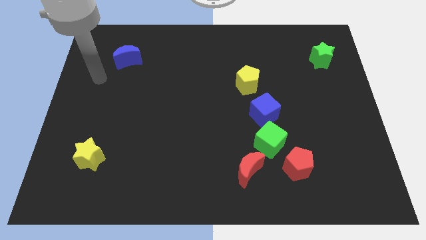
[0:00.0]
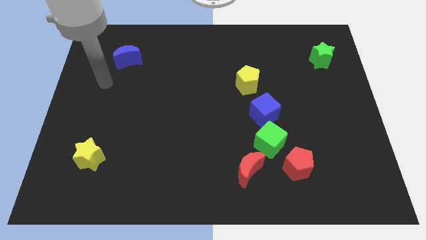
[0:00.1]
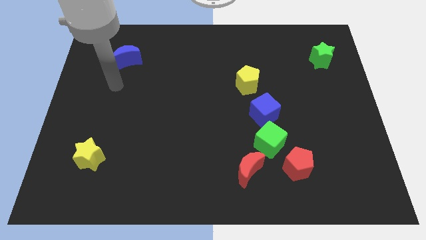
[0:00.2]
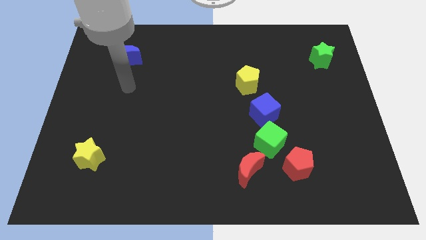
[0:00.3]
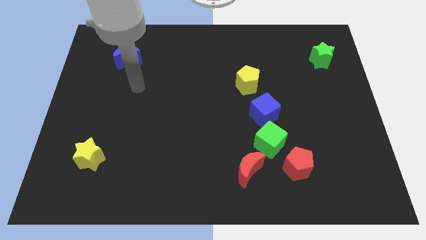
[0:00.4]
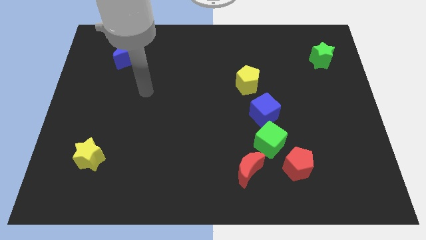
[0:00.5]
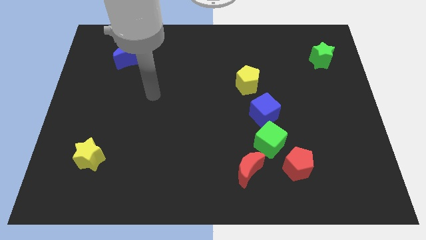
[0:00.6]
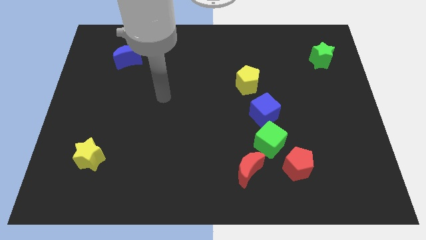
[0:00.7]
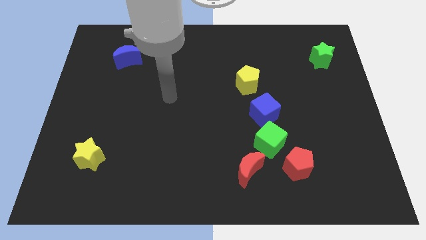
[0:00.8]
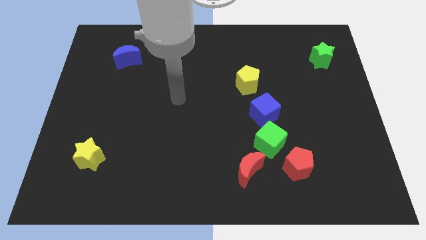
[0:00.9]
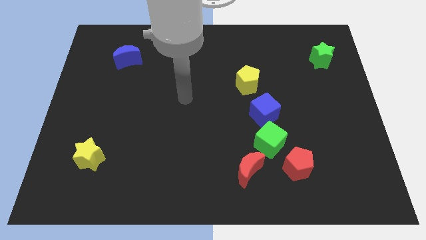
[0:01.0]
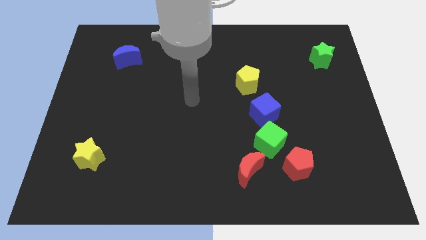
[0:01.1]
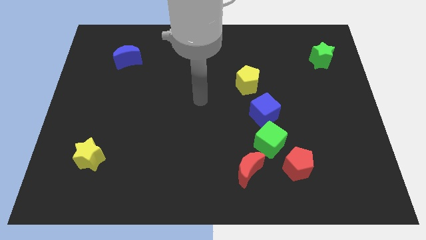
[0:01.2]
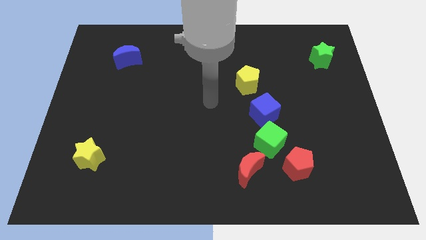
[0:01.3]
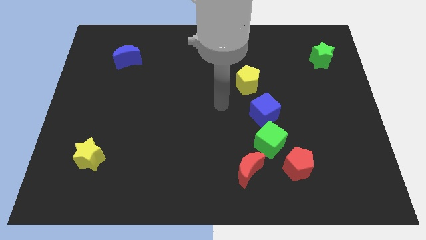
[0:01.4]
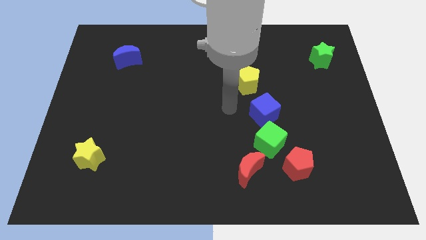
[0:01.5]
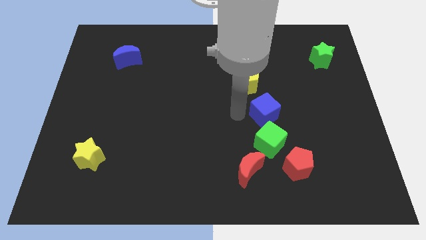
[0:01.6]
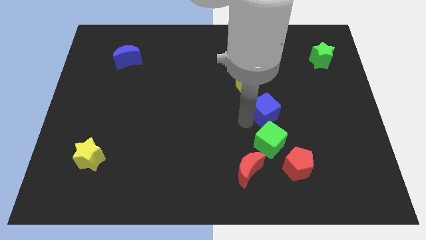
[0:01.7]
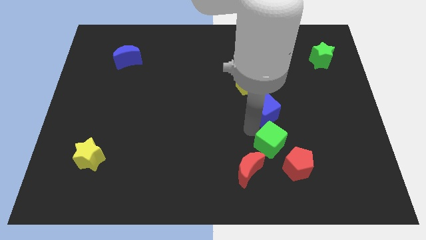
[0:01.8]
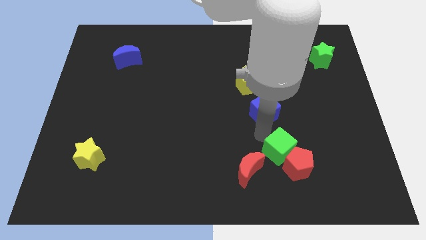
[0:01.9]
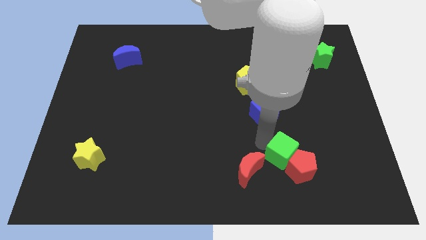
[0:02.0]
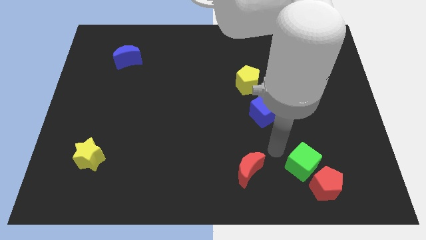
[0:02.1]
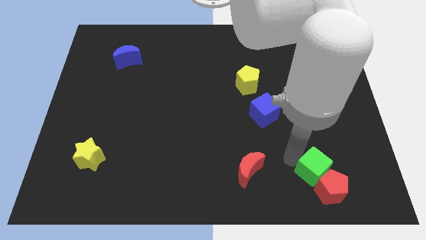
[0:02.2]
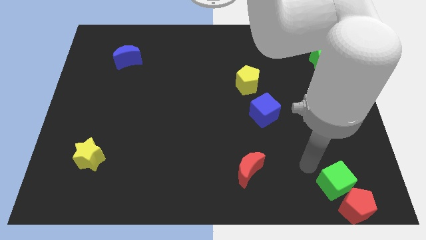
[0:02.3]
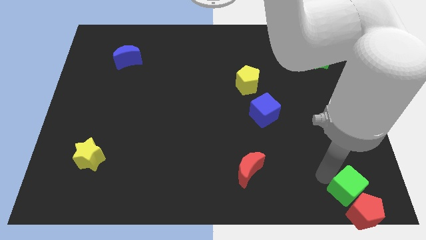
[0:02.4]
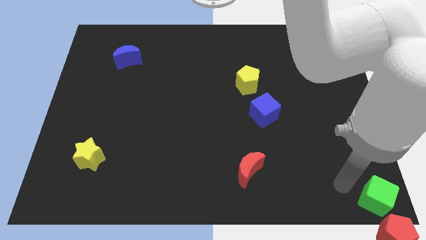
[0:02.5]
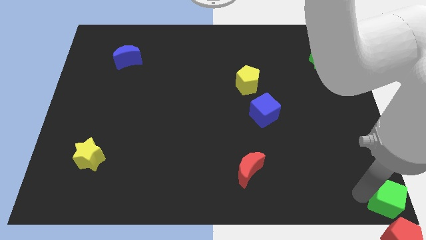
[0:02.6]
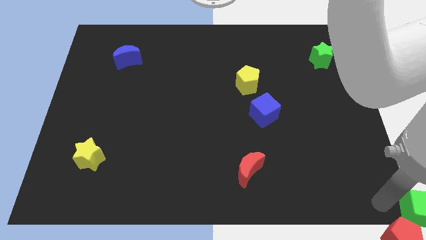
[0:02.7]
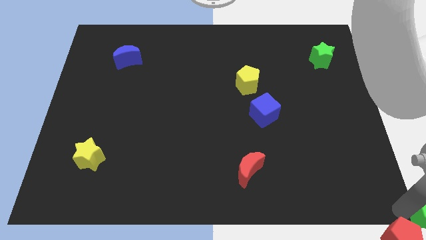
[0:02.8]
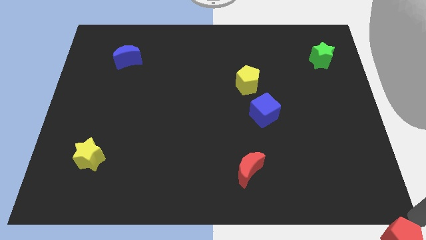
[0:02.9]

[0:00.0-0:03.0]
pull the red pentagon apart from the green cube

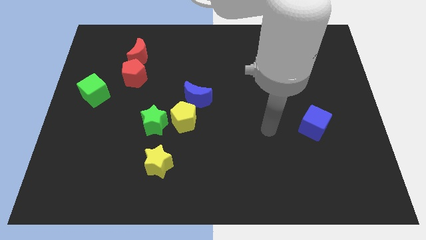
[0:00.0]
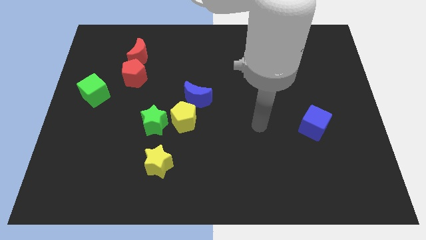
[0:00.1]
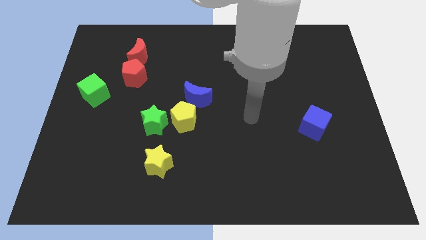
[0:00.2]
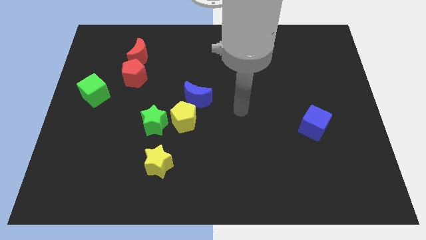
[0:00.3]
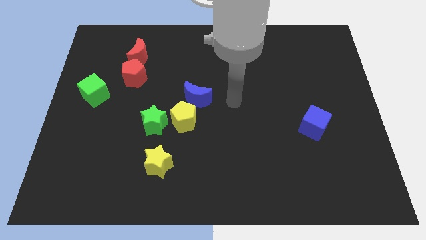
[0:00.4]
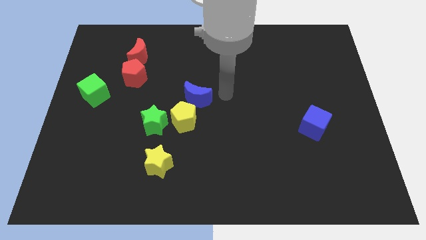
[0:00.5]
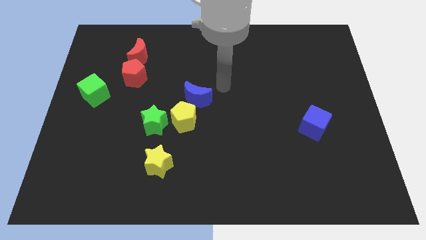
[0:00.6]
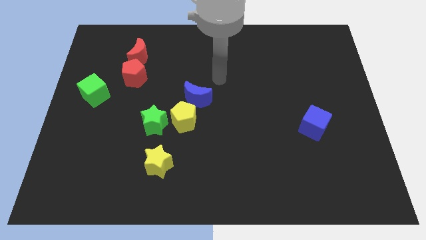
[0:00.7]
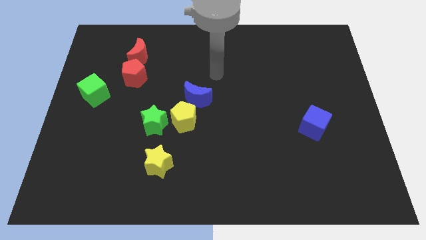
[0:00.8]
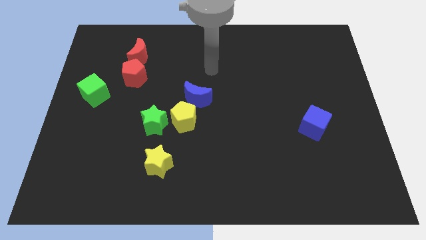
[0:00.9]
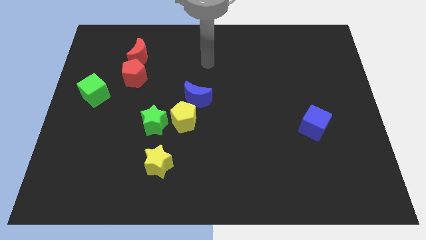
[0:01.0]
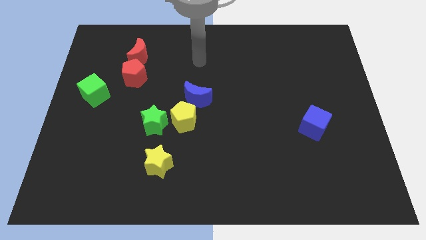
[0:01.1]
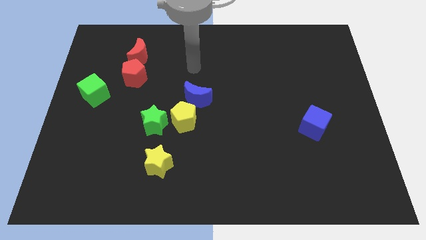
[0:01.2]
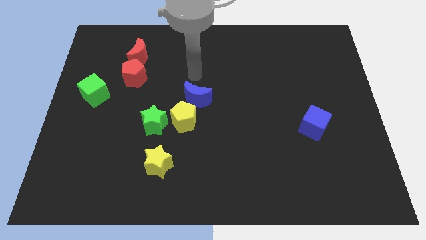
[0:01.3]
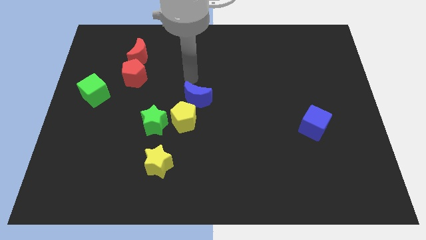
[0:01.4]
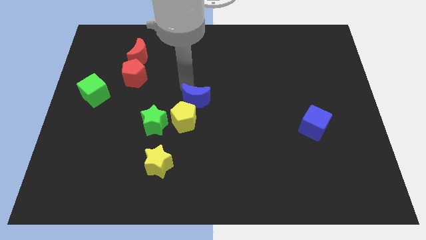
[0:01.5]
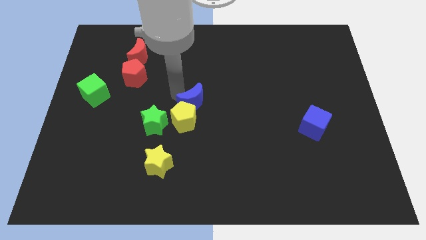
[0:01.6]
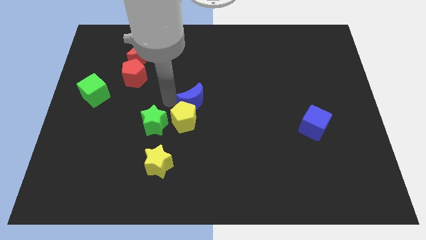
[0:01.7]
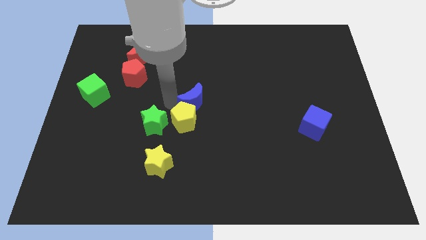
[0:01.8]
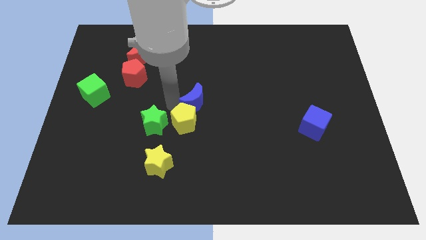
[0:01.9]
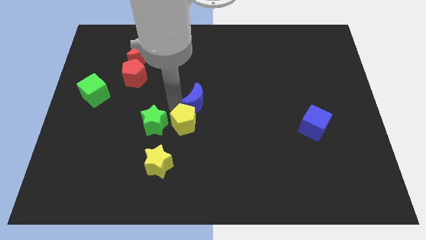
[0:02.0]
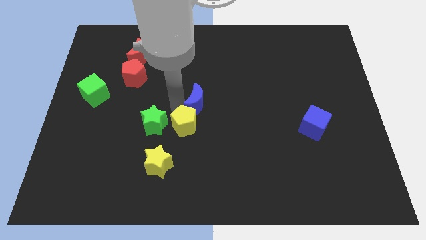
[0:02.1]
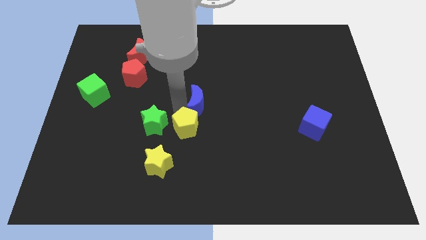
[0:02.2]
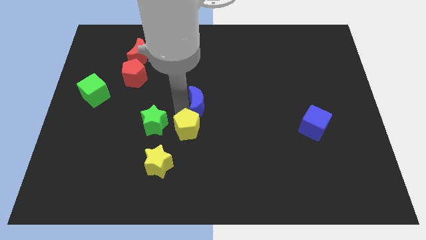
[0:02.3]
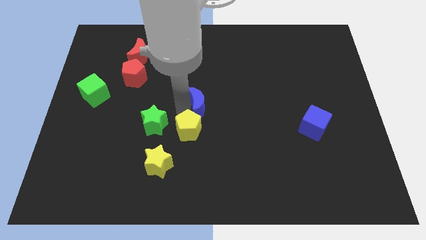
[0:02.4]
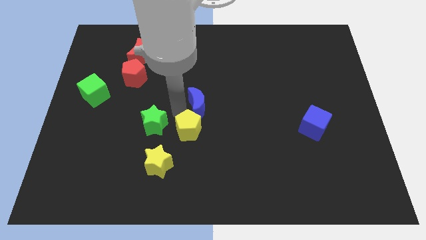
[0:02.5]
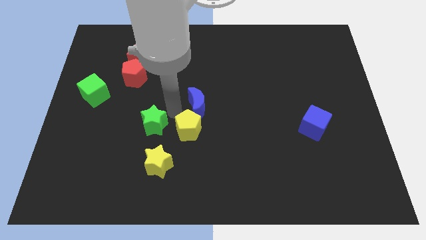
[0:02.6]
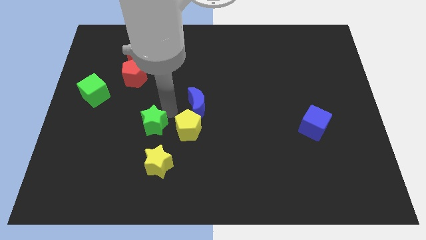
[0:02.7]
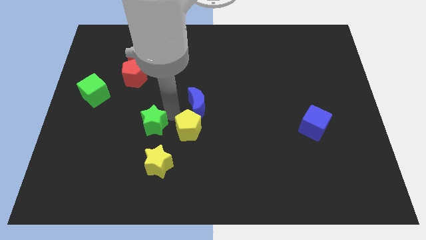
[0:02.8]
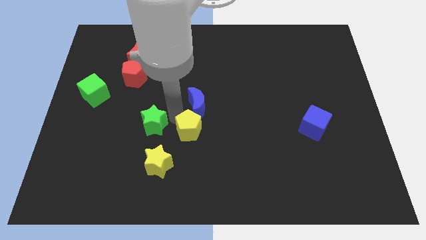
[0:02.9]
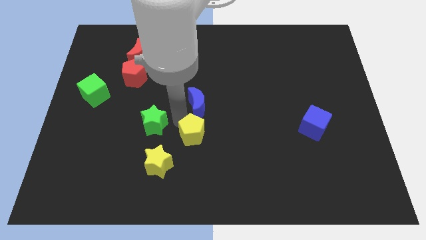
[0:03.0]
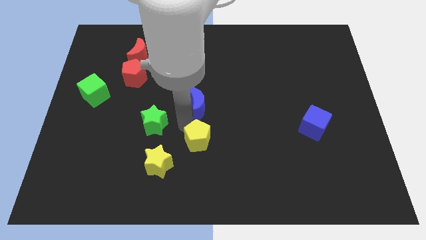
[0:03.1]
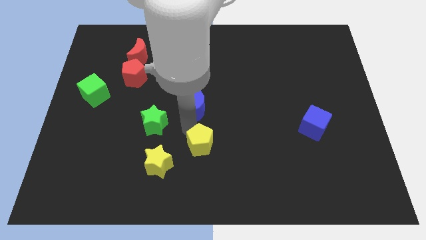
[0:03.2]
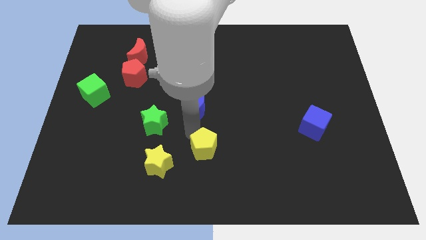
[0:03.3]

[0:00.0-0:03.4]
separate the yellow pentagon from the green star and blue moon

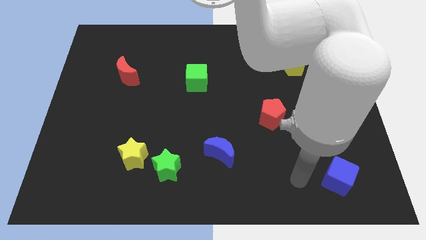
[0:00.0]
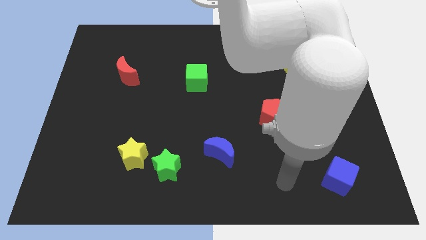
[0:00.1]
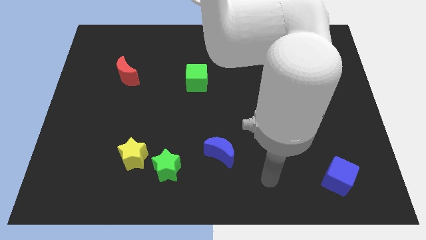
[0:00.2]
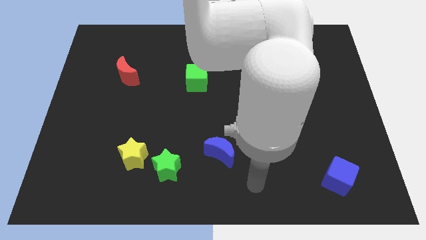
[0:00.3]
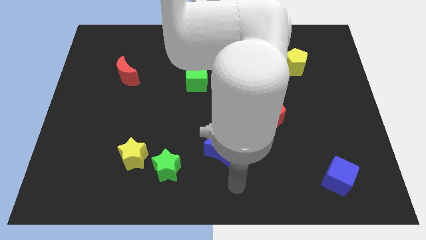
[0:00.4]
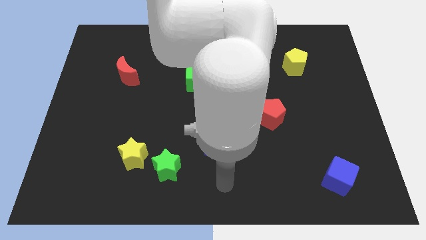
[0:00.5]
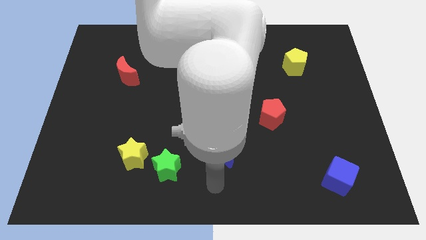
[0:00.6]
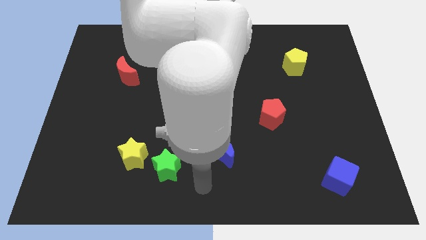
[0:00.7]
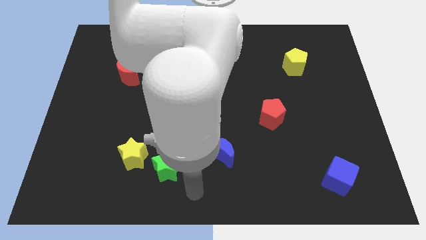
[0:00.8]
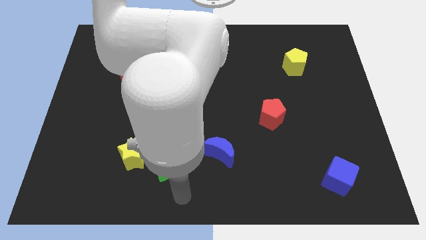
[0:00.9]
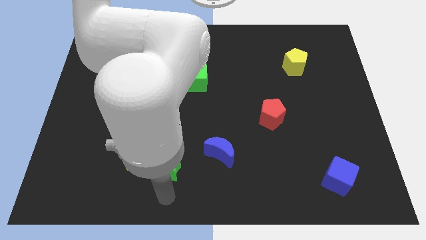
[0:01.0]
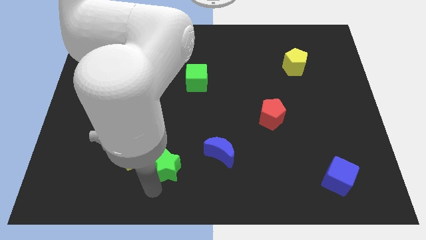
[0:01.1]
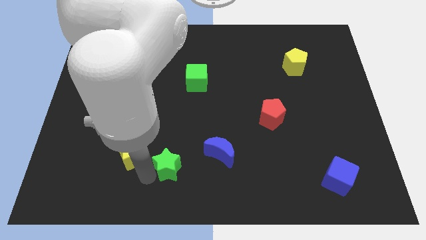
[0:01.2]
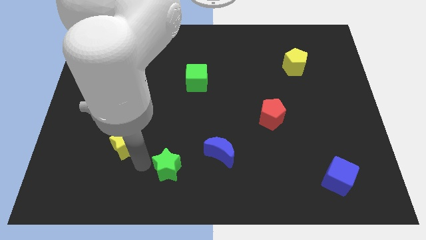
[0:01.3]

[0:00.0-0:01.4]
pull the green star apart from the yellow star

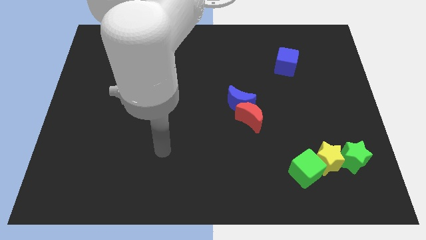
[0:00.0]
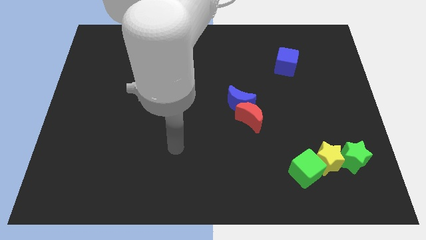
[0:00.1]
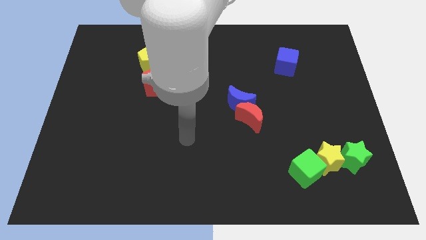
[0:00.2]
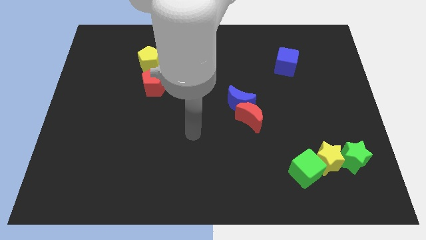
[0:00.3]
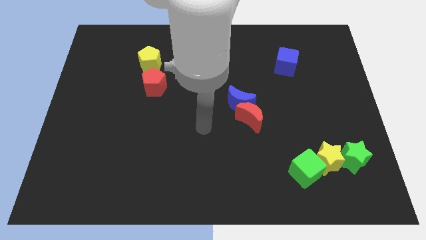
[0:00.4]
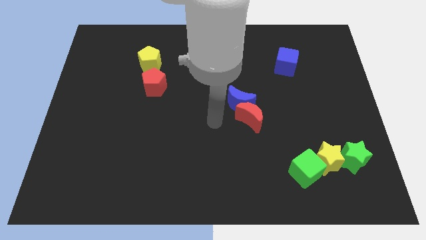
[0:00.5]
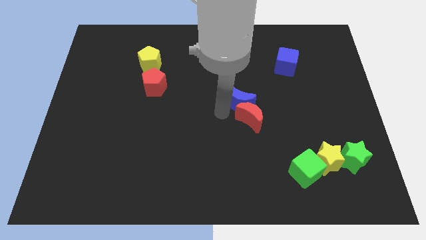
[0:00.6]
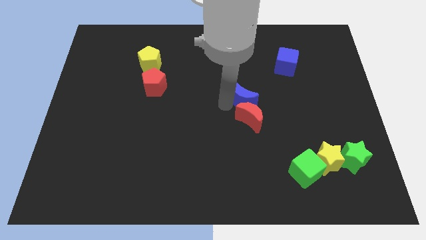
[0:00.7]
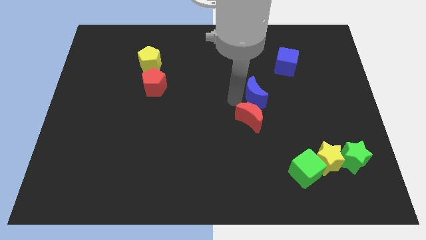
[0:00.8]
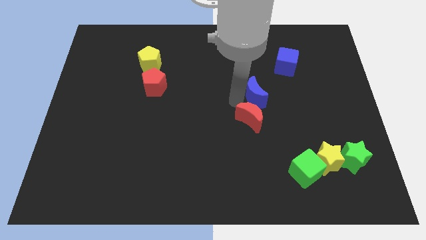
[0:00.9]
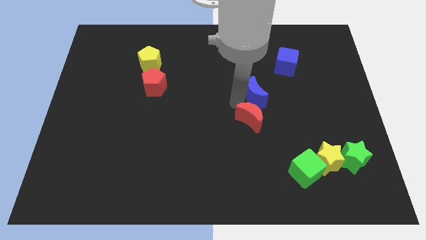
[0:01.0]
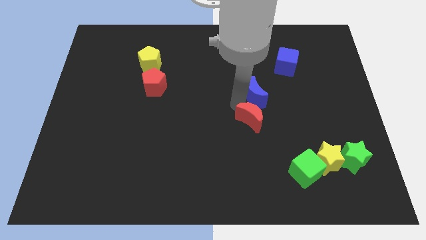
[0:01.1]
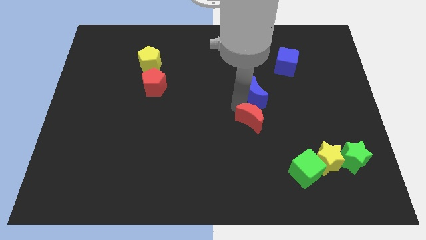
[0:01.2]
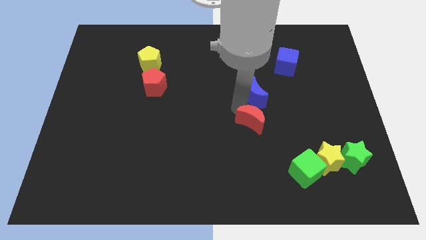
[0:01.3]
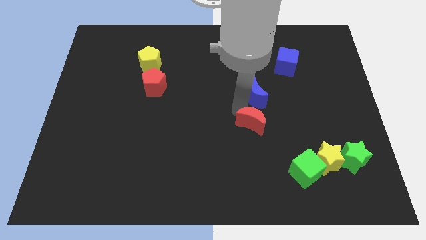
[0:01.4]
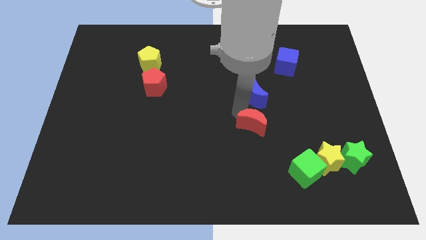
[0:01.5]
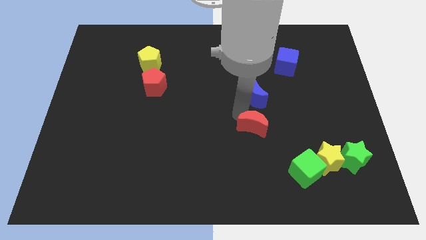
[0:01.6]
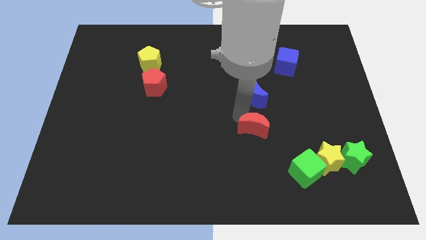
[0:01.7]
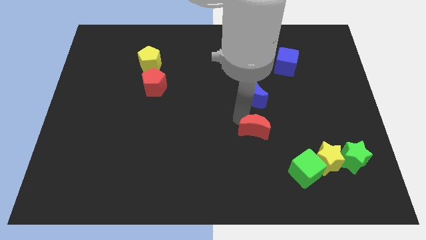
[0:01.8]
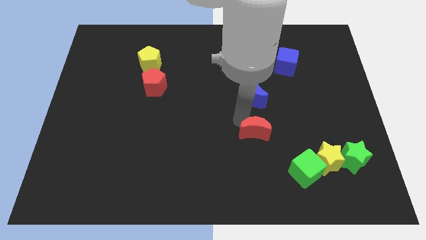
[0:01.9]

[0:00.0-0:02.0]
move the red moon away from the blue moon
